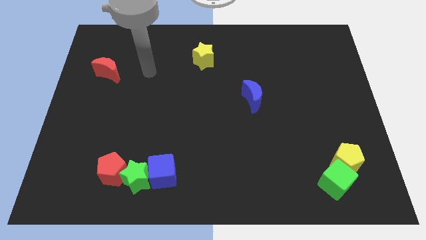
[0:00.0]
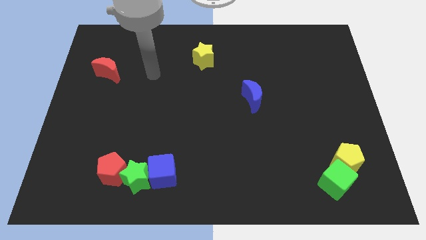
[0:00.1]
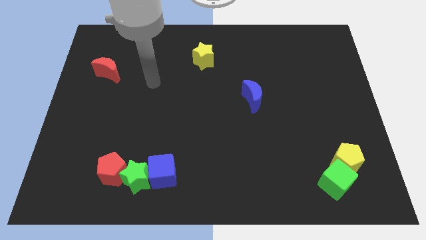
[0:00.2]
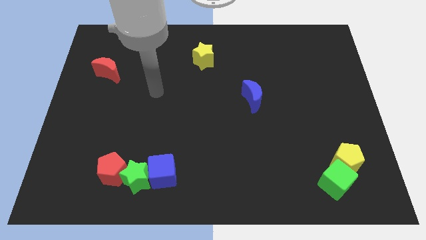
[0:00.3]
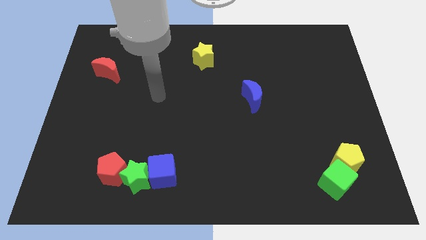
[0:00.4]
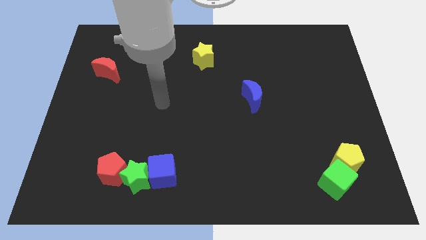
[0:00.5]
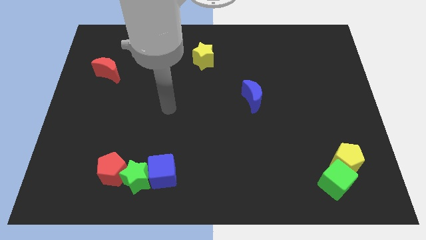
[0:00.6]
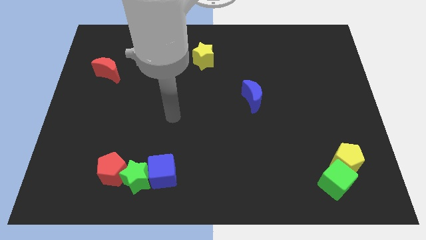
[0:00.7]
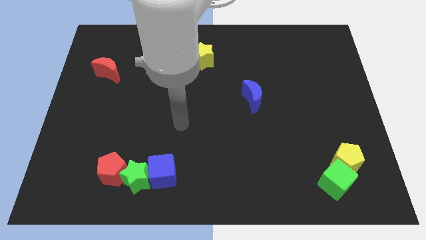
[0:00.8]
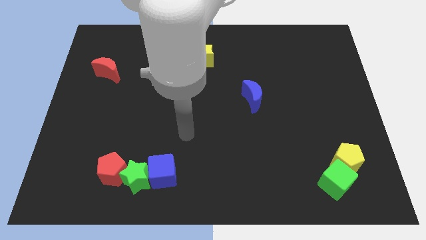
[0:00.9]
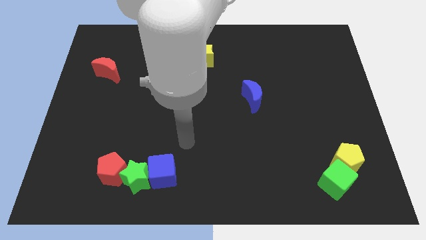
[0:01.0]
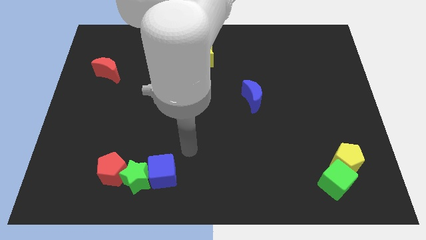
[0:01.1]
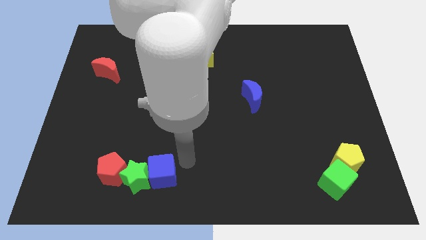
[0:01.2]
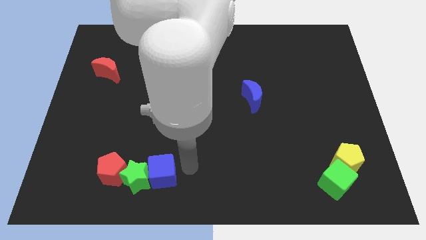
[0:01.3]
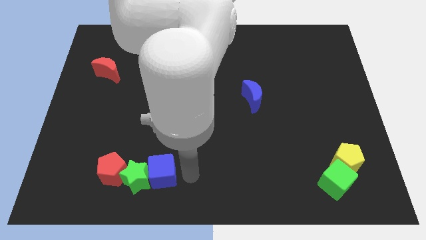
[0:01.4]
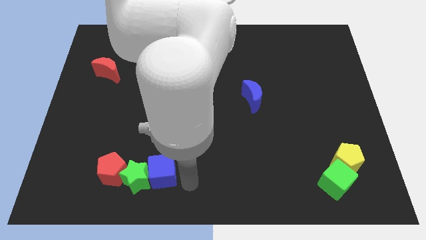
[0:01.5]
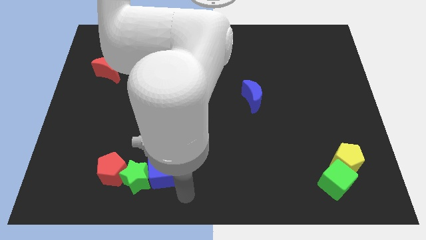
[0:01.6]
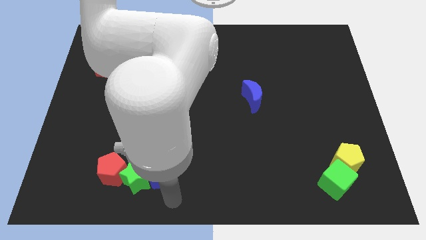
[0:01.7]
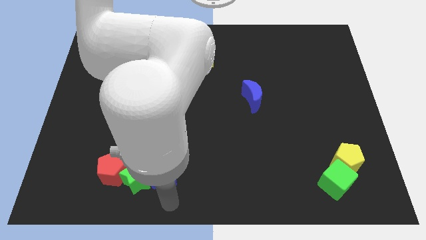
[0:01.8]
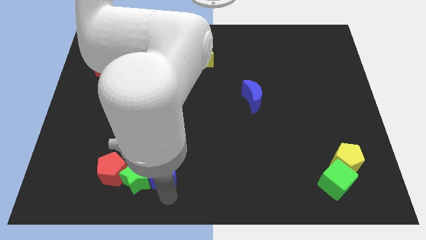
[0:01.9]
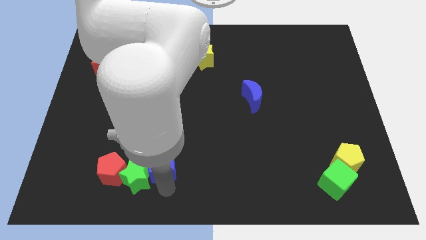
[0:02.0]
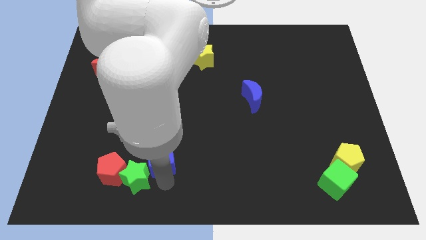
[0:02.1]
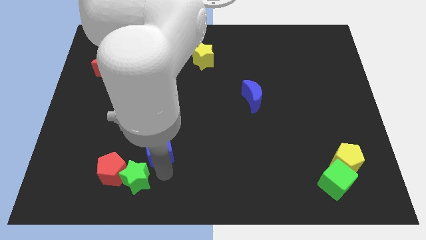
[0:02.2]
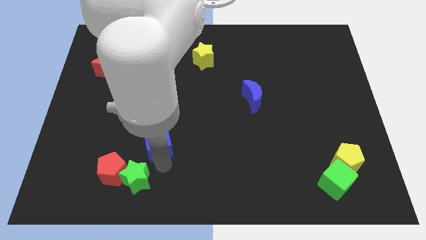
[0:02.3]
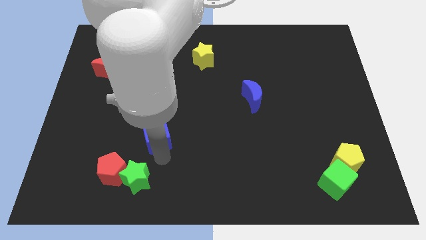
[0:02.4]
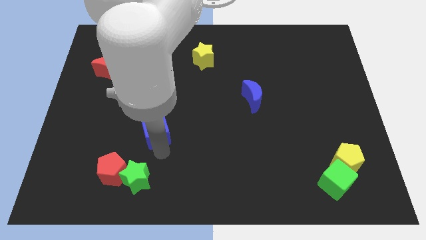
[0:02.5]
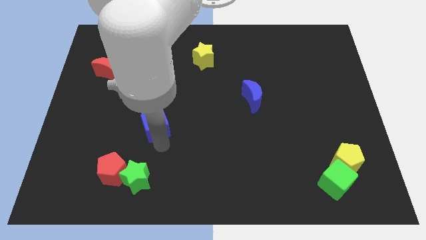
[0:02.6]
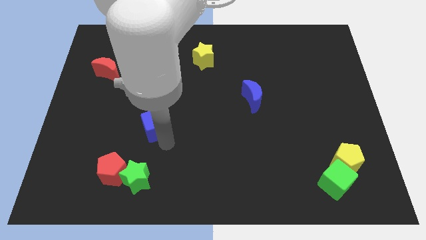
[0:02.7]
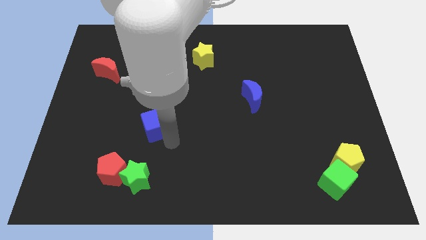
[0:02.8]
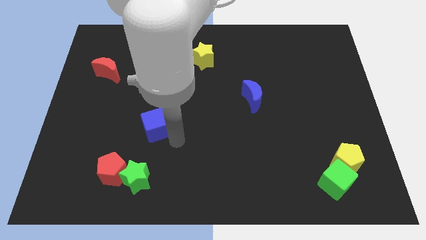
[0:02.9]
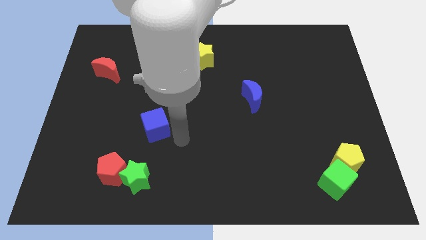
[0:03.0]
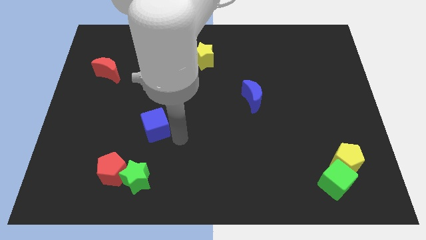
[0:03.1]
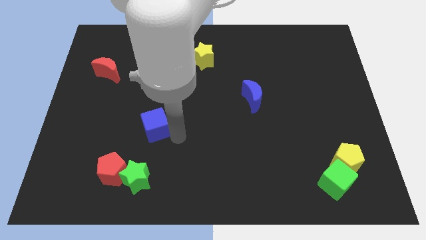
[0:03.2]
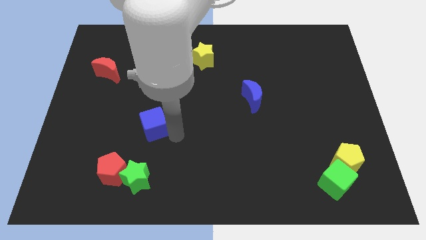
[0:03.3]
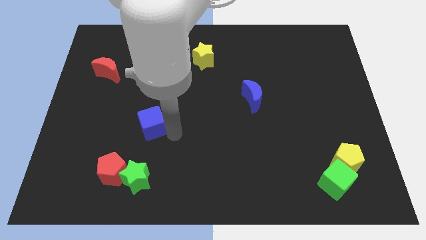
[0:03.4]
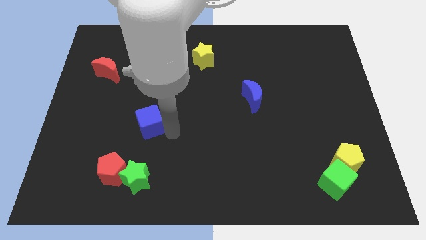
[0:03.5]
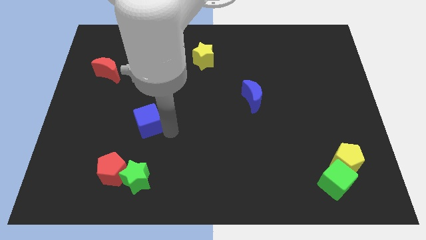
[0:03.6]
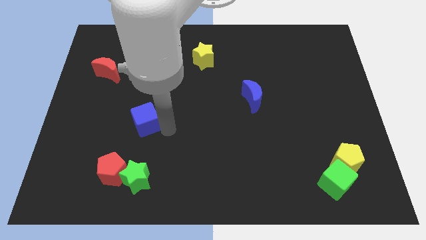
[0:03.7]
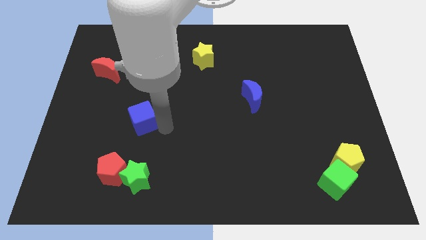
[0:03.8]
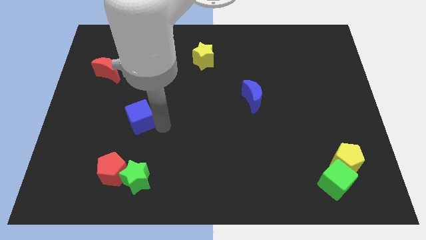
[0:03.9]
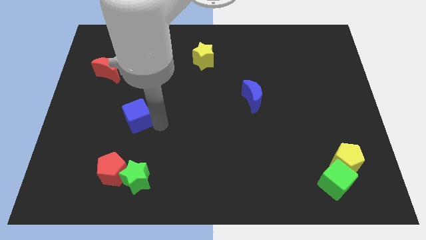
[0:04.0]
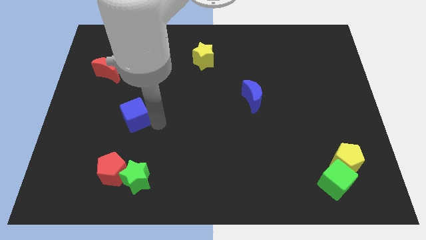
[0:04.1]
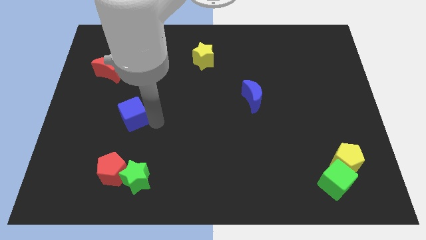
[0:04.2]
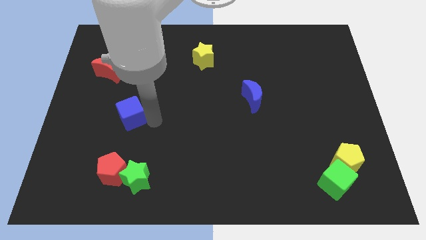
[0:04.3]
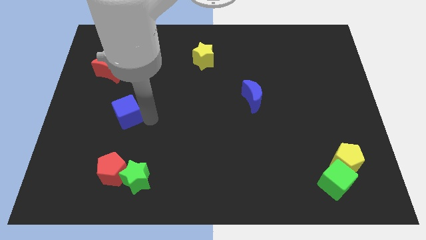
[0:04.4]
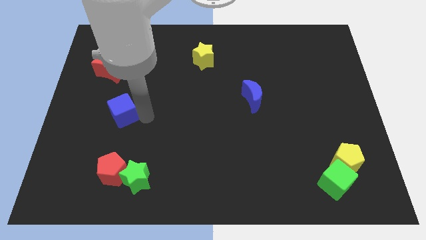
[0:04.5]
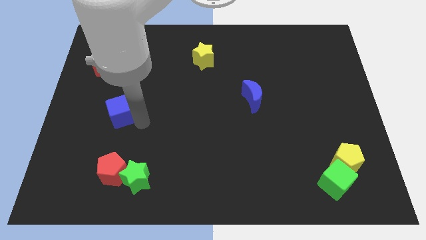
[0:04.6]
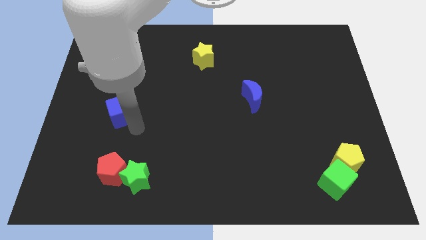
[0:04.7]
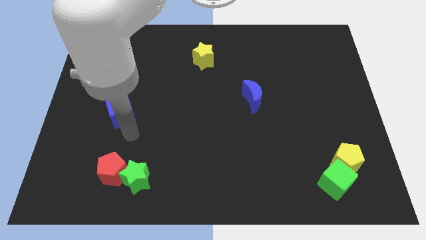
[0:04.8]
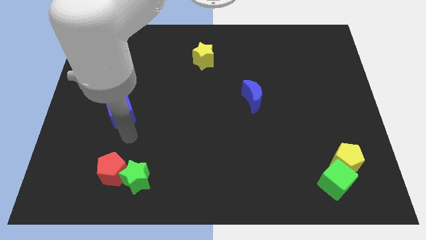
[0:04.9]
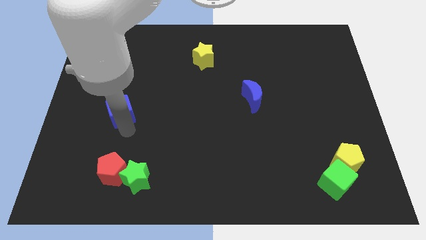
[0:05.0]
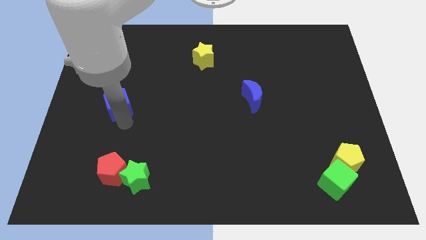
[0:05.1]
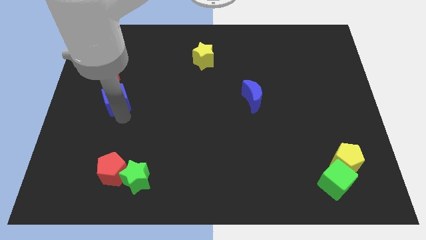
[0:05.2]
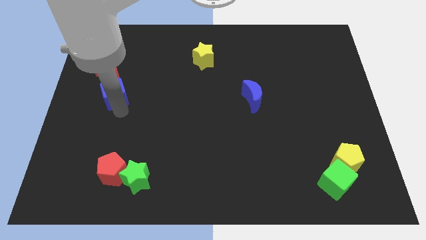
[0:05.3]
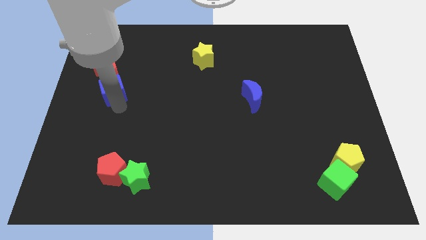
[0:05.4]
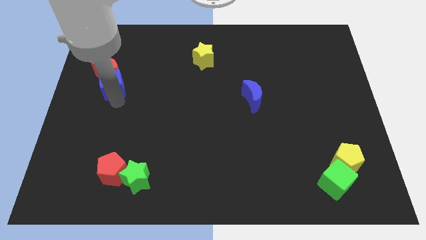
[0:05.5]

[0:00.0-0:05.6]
move the blue cube towards the red moon

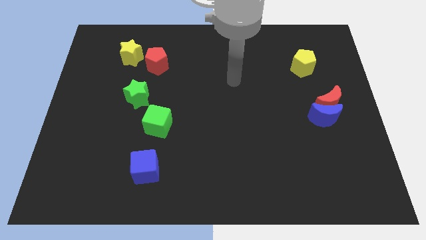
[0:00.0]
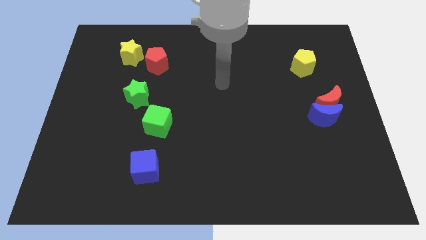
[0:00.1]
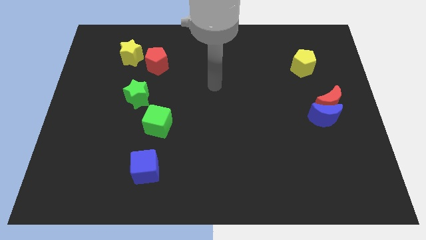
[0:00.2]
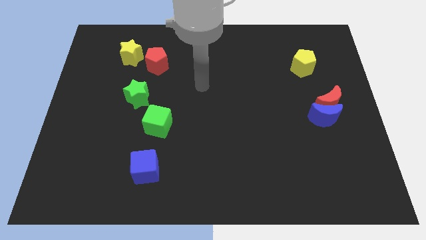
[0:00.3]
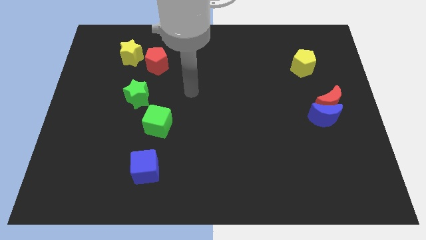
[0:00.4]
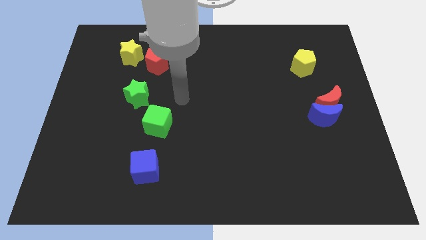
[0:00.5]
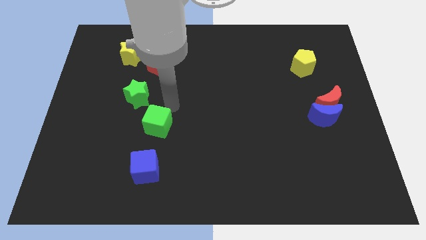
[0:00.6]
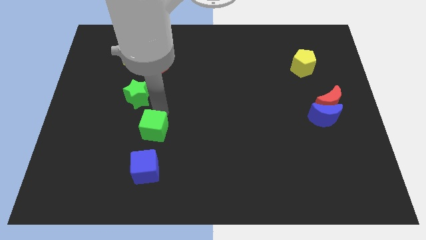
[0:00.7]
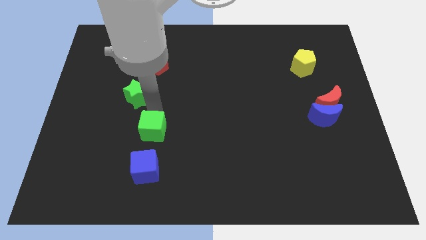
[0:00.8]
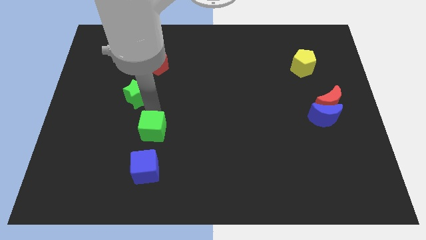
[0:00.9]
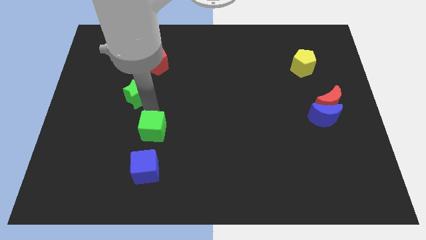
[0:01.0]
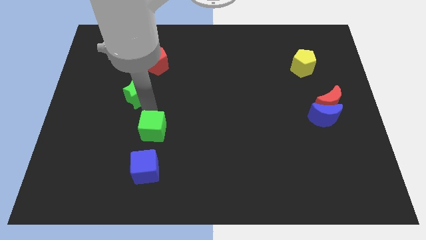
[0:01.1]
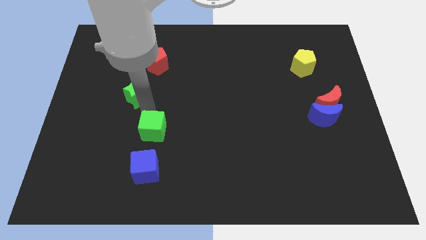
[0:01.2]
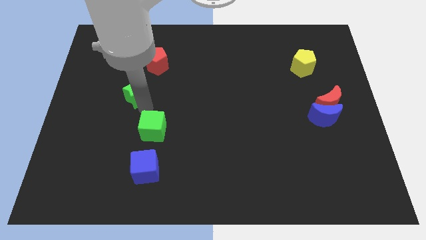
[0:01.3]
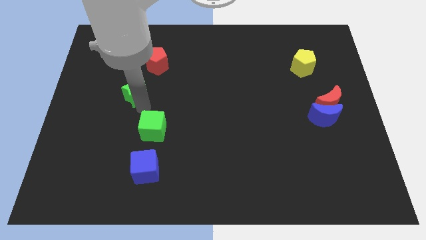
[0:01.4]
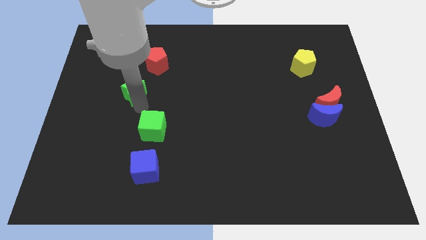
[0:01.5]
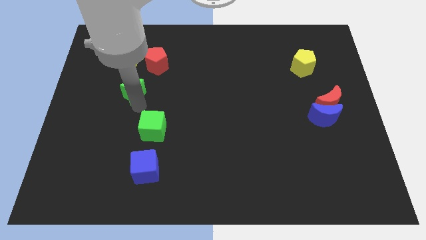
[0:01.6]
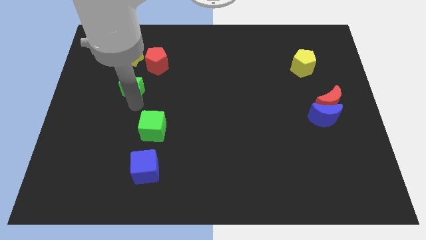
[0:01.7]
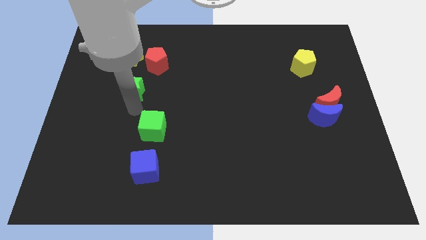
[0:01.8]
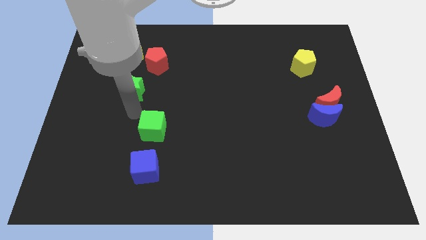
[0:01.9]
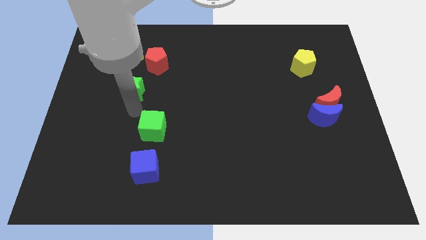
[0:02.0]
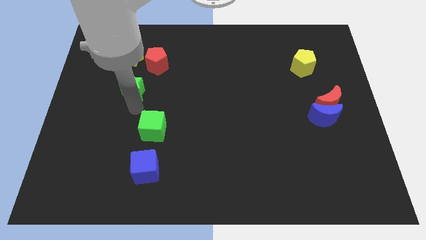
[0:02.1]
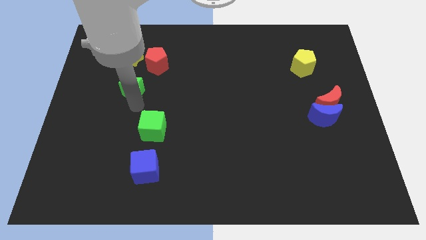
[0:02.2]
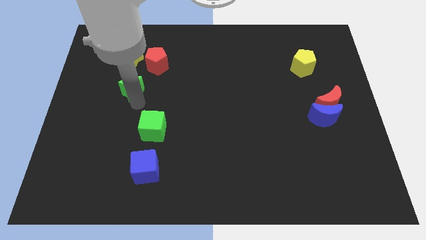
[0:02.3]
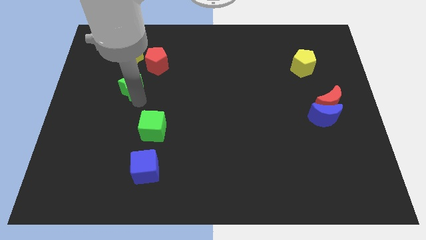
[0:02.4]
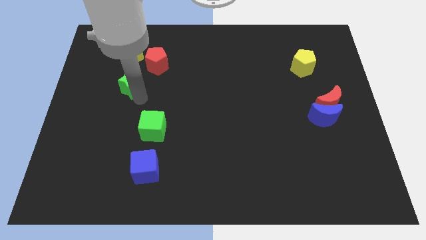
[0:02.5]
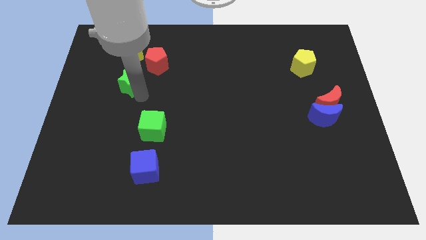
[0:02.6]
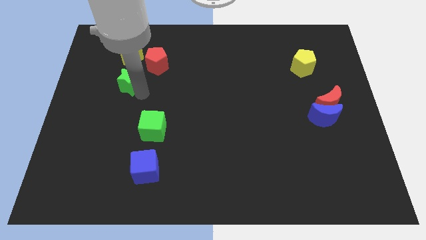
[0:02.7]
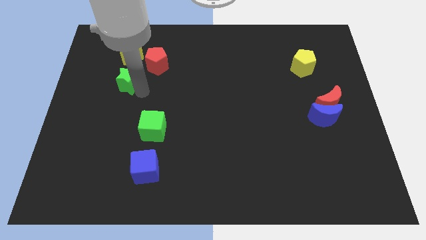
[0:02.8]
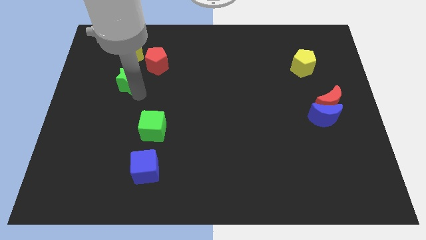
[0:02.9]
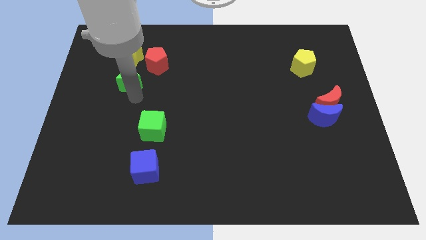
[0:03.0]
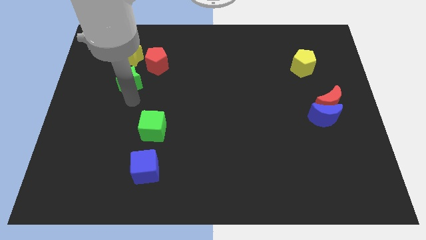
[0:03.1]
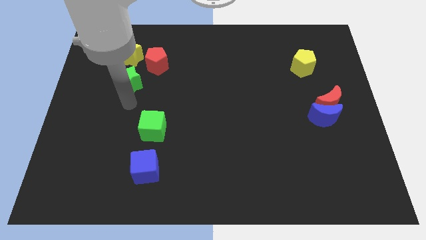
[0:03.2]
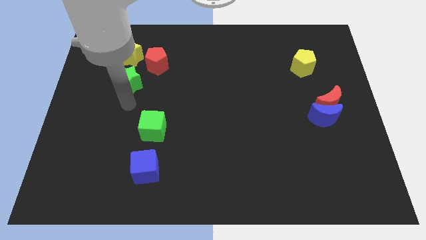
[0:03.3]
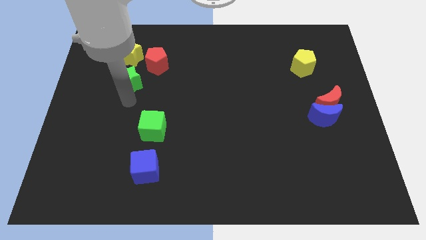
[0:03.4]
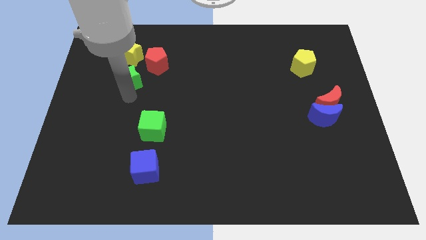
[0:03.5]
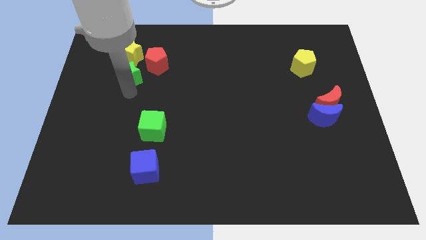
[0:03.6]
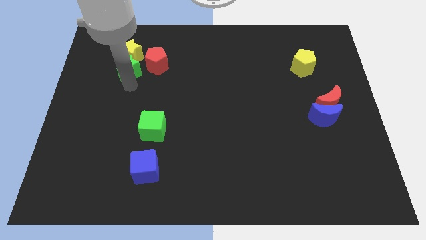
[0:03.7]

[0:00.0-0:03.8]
put the green star close to the yellow star
